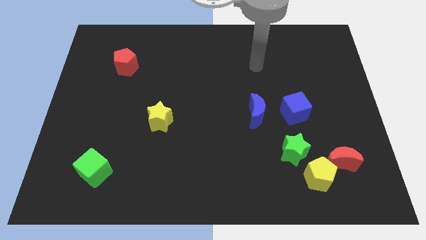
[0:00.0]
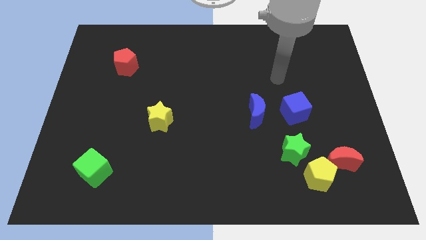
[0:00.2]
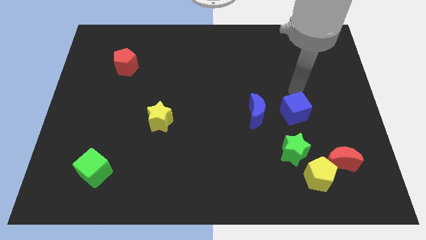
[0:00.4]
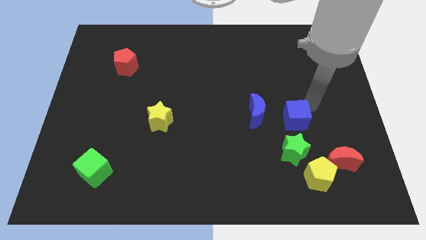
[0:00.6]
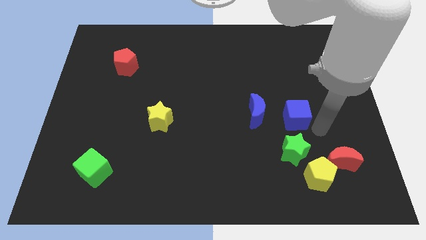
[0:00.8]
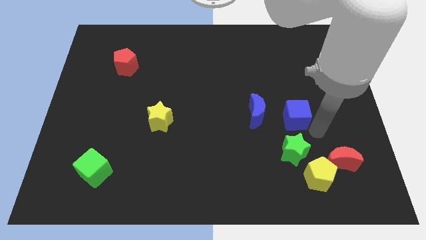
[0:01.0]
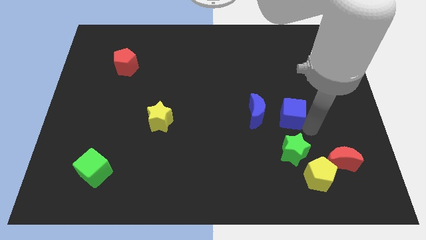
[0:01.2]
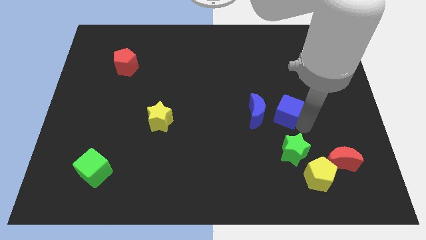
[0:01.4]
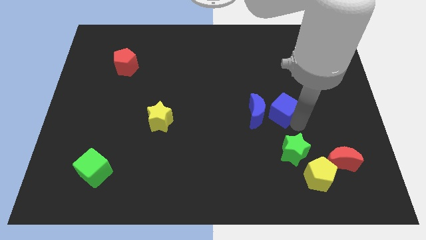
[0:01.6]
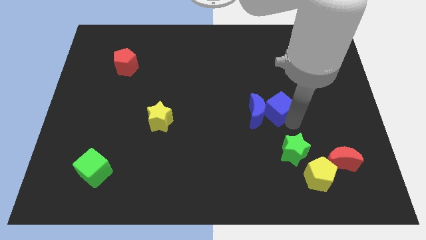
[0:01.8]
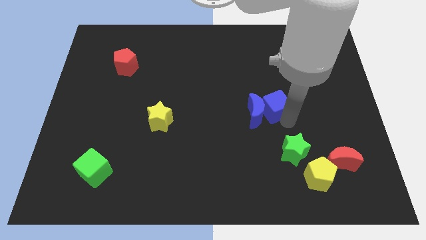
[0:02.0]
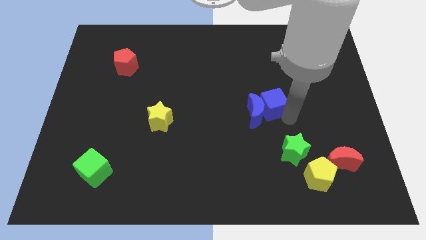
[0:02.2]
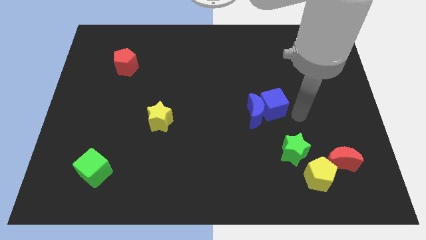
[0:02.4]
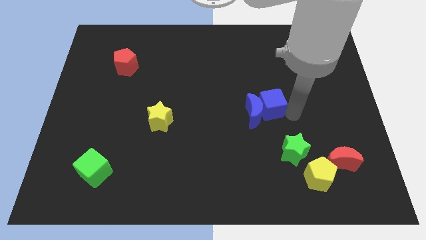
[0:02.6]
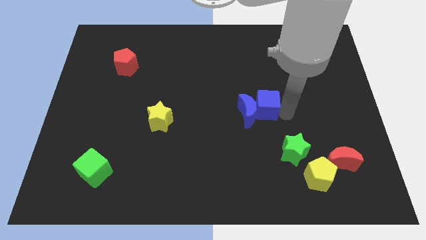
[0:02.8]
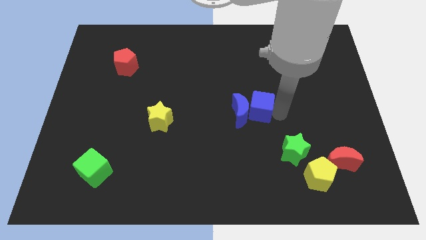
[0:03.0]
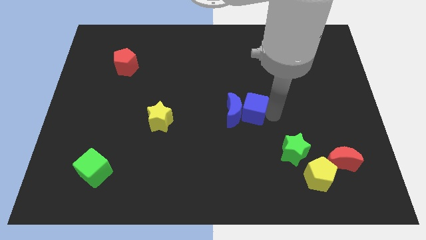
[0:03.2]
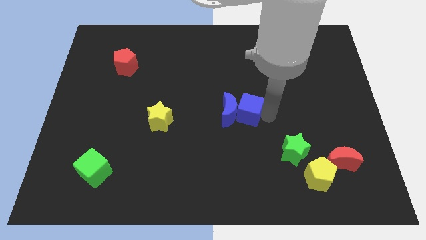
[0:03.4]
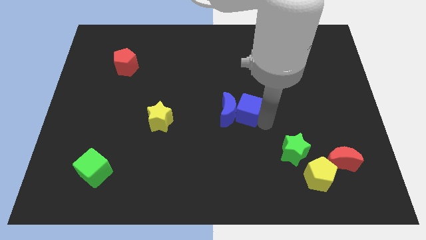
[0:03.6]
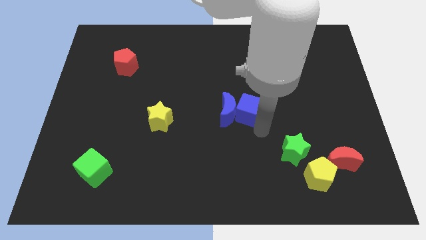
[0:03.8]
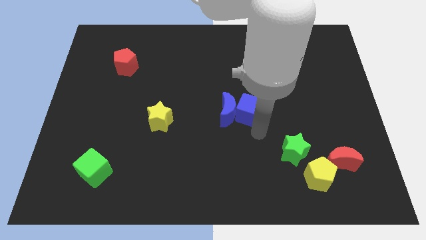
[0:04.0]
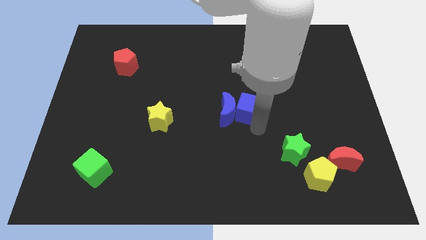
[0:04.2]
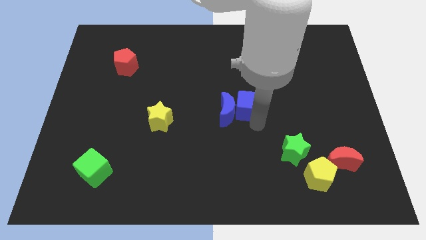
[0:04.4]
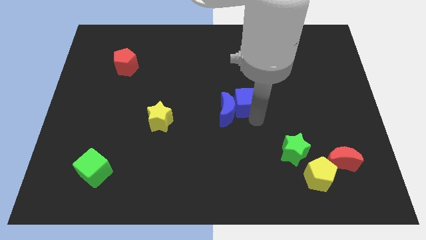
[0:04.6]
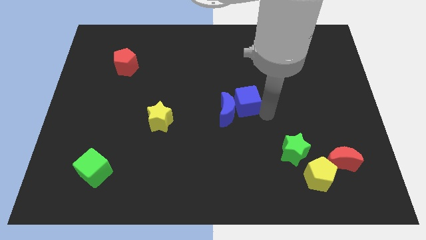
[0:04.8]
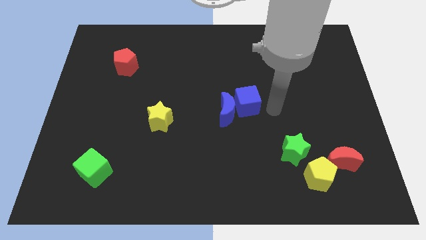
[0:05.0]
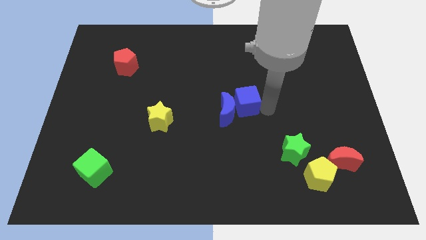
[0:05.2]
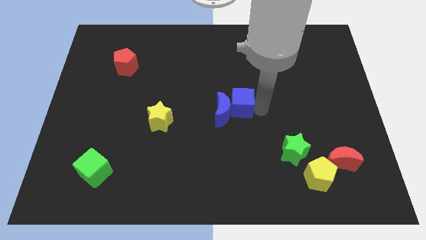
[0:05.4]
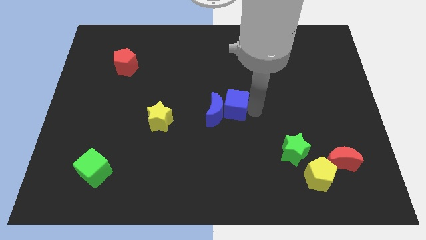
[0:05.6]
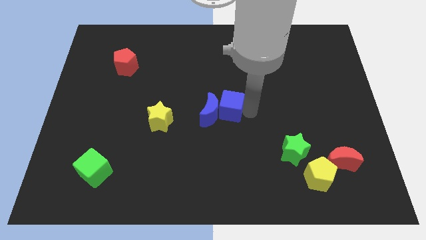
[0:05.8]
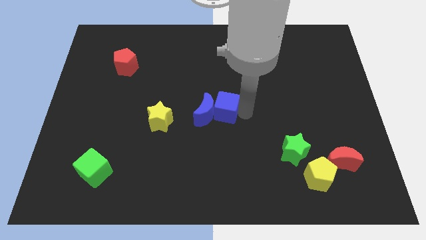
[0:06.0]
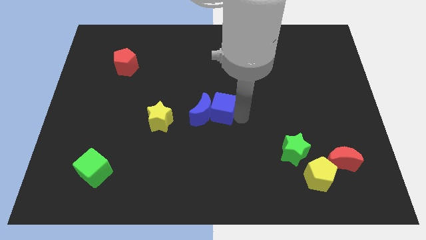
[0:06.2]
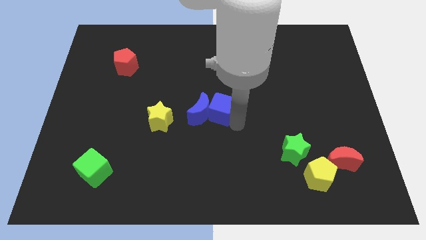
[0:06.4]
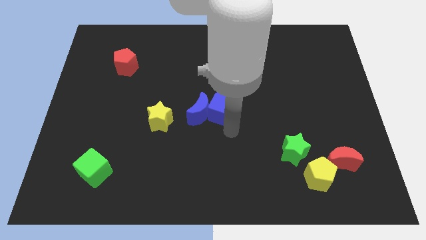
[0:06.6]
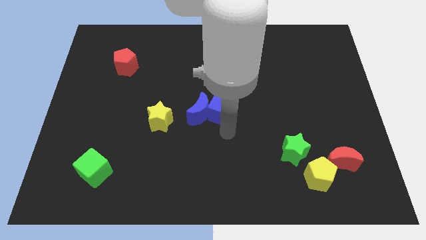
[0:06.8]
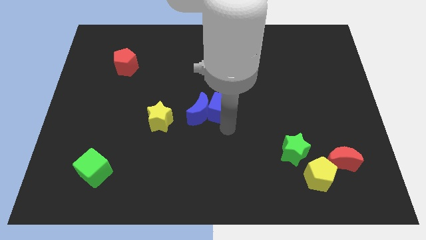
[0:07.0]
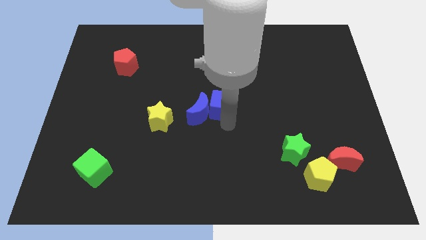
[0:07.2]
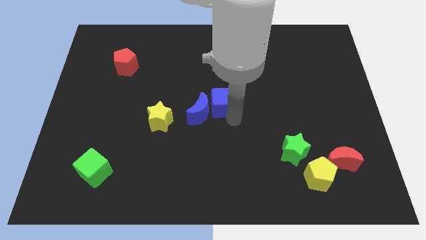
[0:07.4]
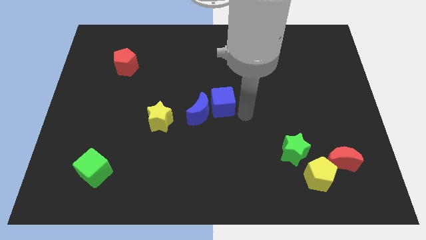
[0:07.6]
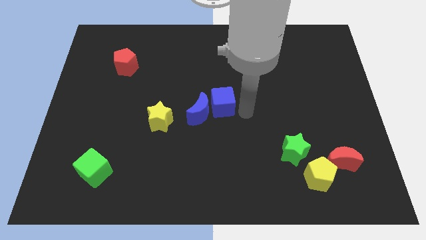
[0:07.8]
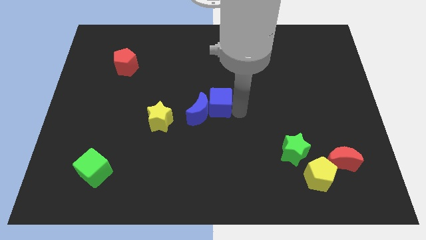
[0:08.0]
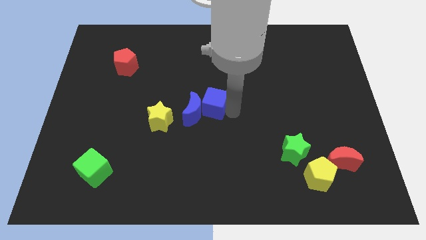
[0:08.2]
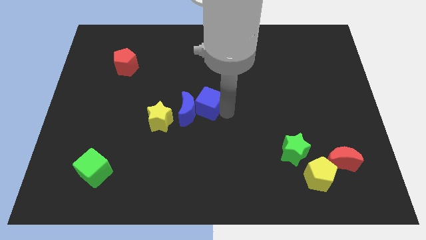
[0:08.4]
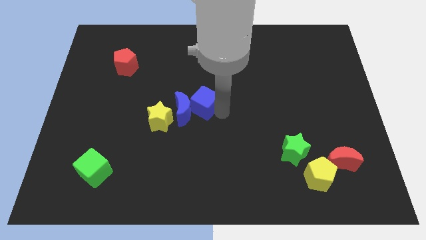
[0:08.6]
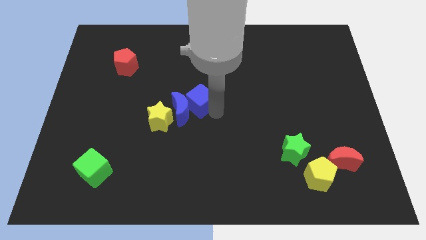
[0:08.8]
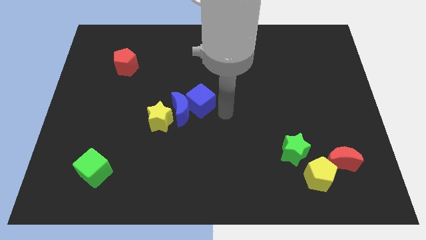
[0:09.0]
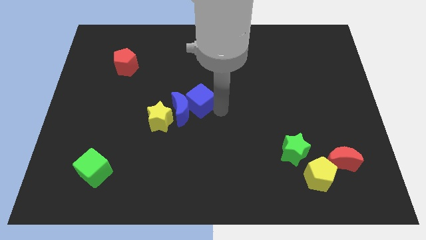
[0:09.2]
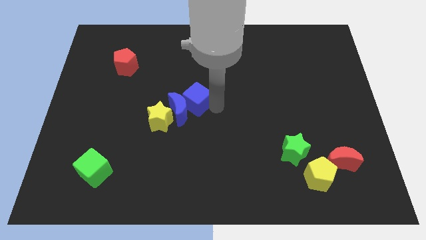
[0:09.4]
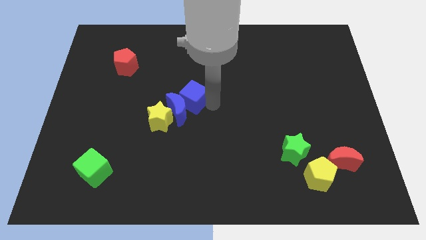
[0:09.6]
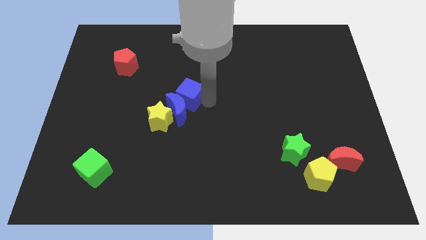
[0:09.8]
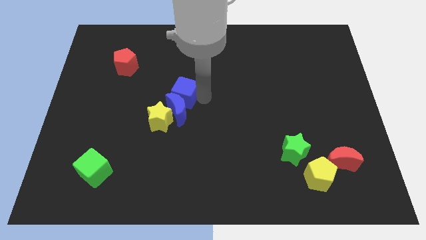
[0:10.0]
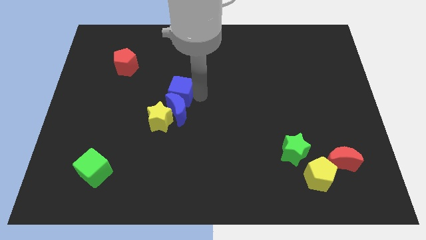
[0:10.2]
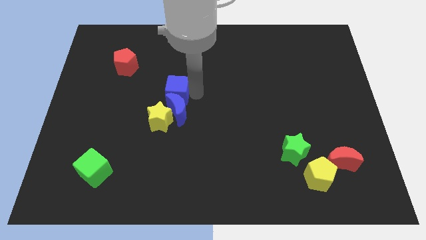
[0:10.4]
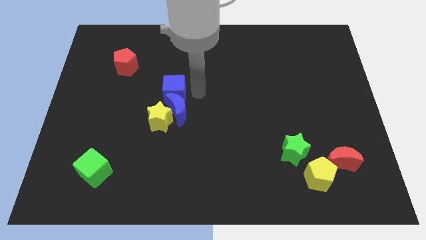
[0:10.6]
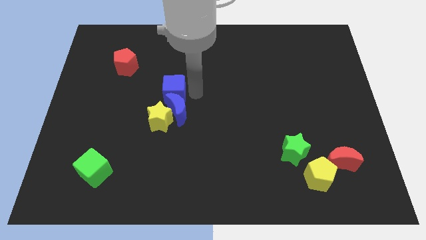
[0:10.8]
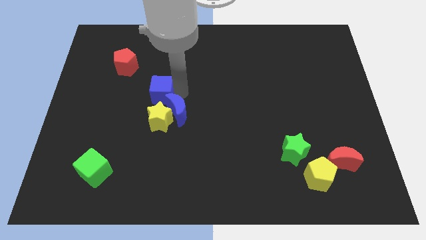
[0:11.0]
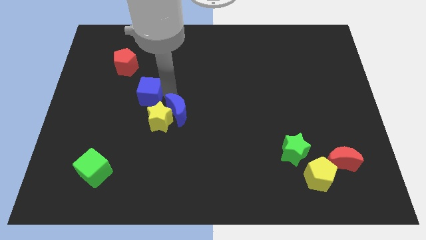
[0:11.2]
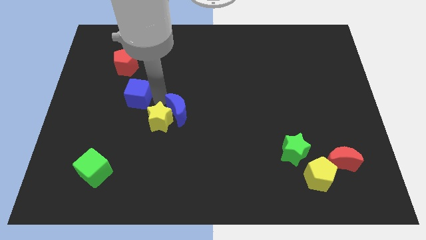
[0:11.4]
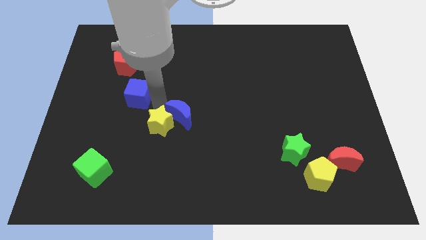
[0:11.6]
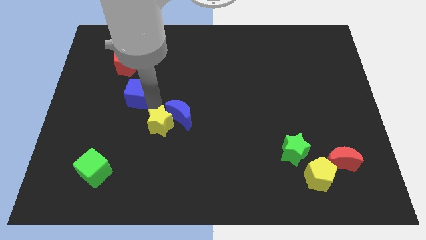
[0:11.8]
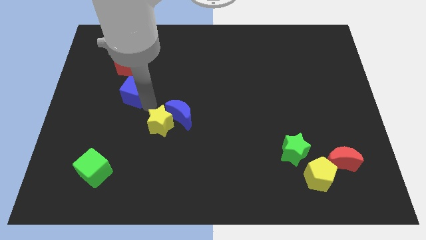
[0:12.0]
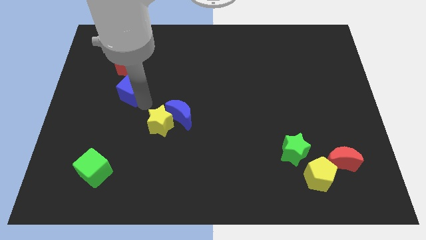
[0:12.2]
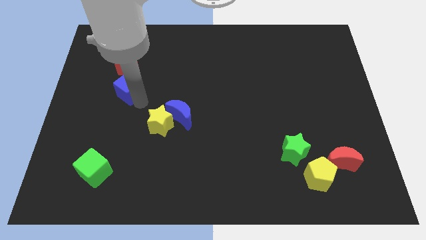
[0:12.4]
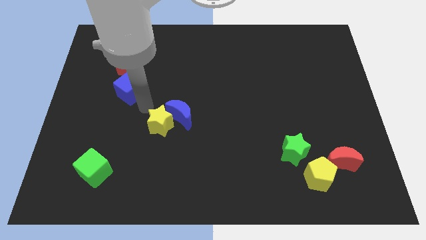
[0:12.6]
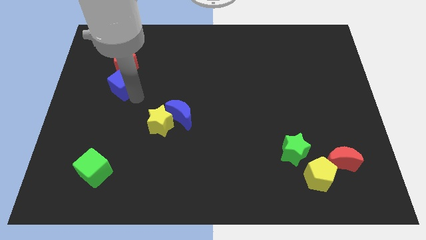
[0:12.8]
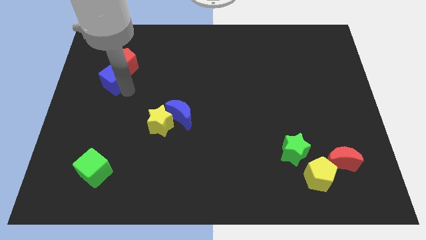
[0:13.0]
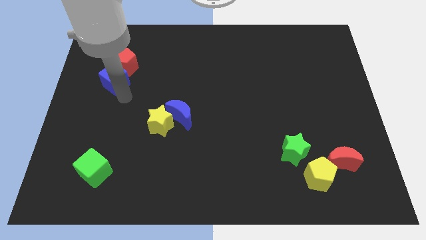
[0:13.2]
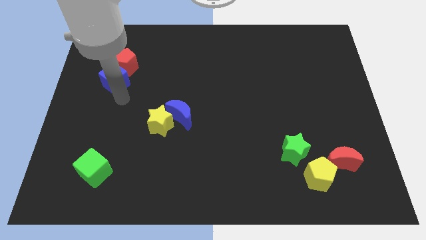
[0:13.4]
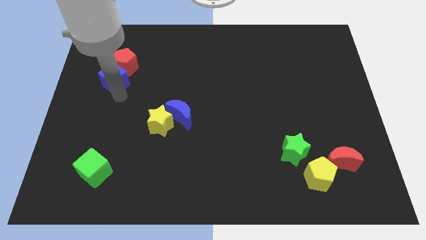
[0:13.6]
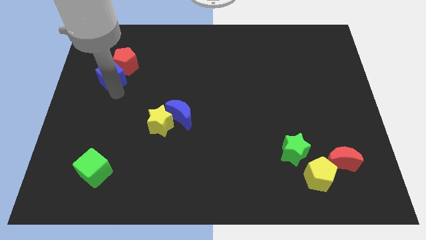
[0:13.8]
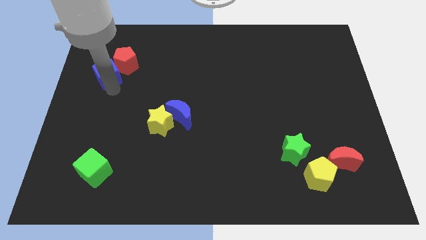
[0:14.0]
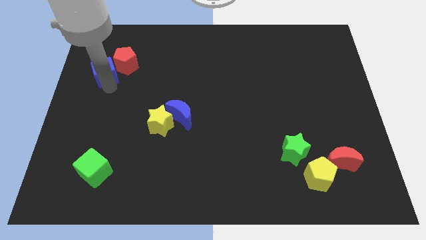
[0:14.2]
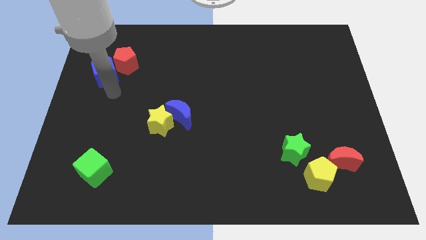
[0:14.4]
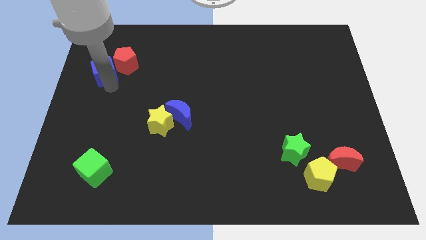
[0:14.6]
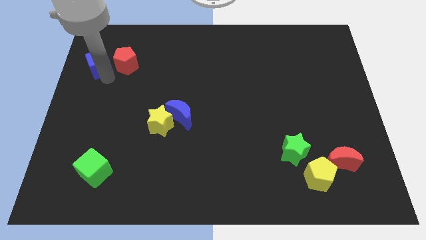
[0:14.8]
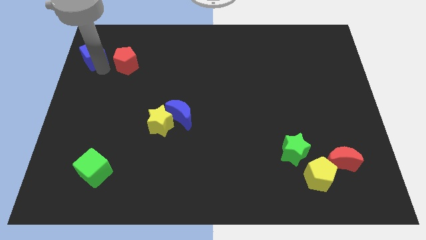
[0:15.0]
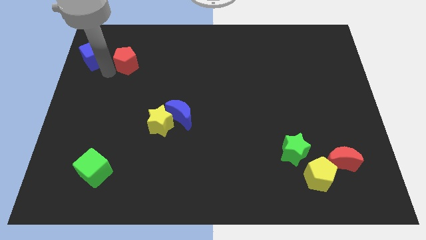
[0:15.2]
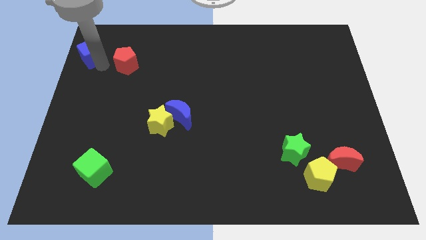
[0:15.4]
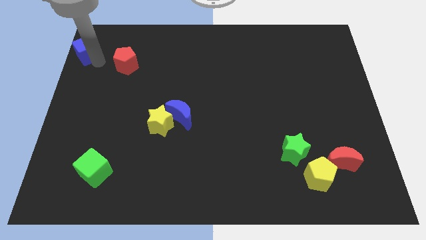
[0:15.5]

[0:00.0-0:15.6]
push the blue cube to the top left corner
